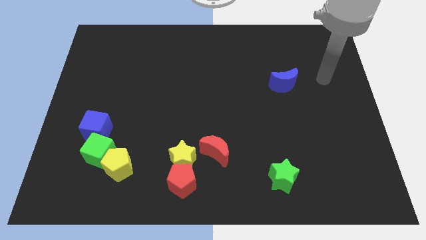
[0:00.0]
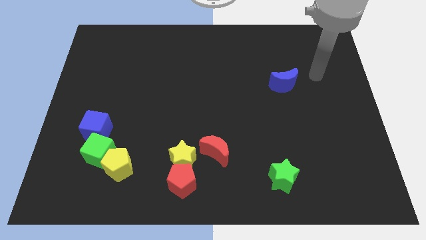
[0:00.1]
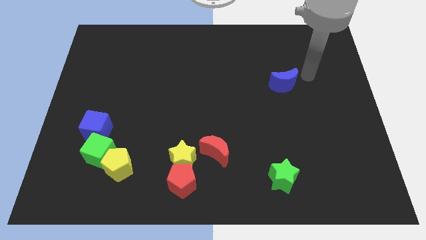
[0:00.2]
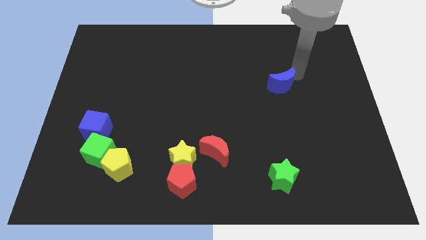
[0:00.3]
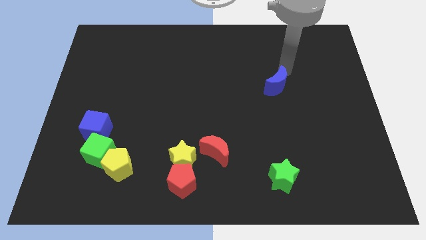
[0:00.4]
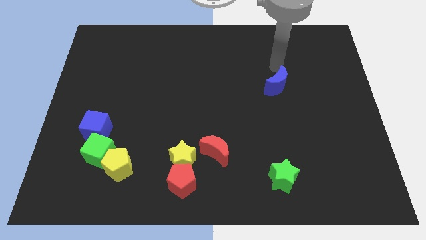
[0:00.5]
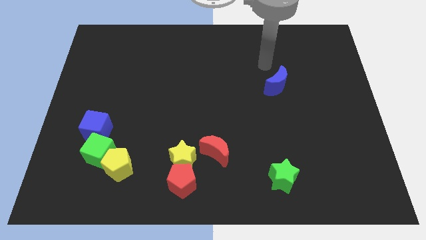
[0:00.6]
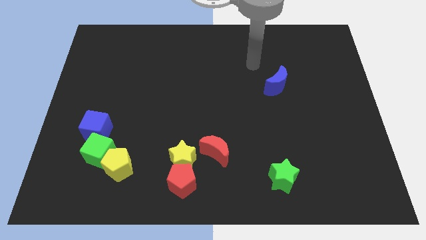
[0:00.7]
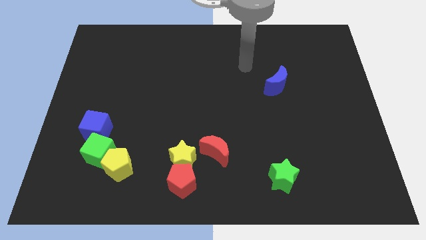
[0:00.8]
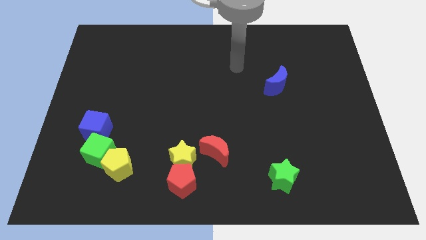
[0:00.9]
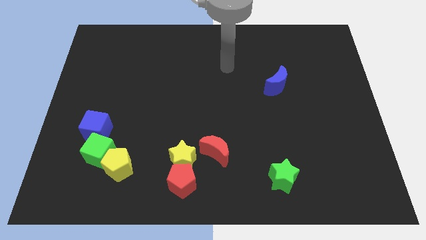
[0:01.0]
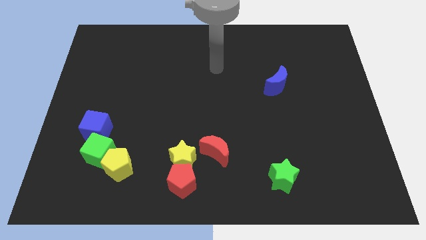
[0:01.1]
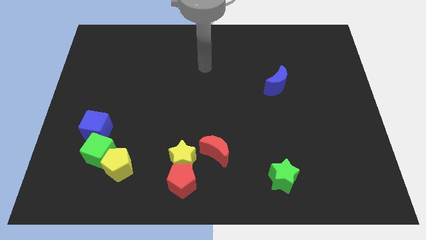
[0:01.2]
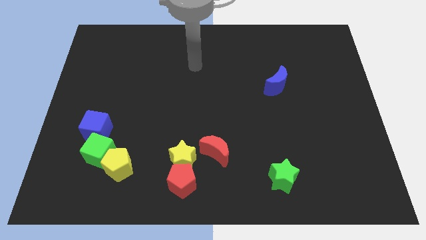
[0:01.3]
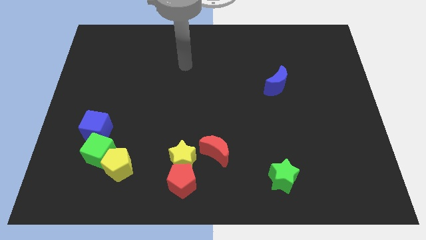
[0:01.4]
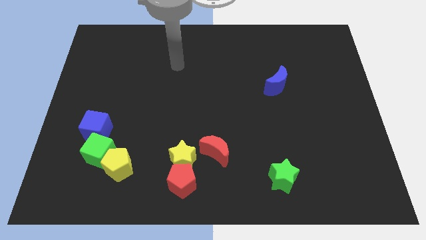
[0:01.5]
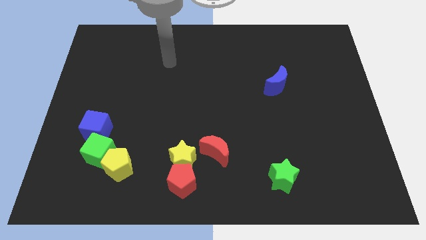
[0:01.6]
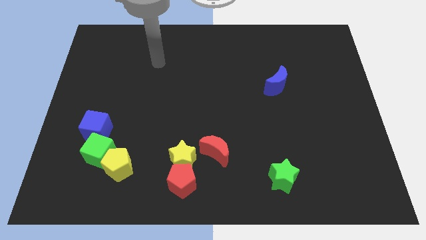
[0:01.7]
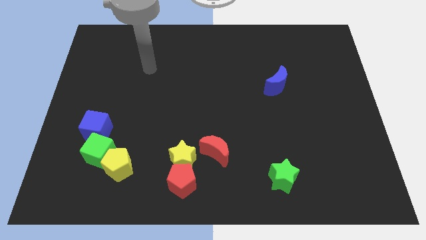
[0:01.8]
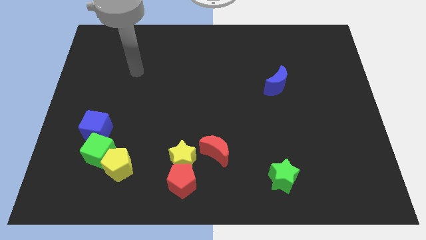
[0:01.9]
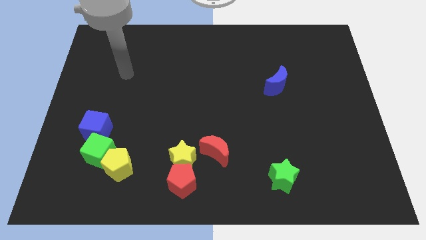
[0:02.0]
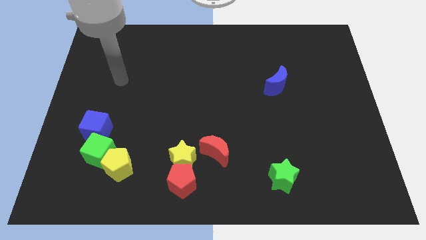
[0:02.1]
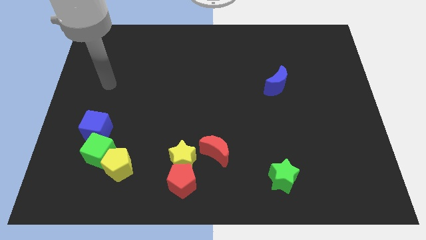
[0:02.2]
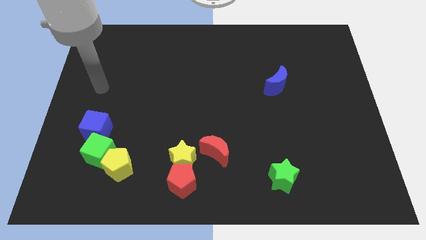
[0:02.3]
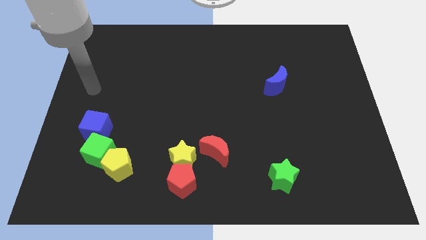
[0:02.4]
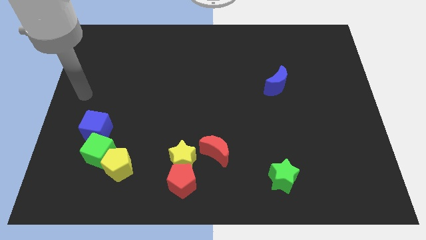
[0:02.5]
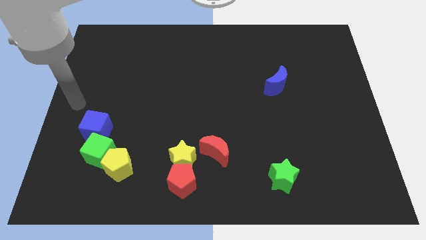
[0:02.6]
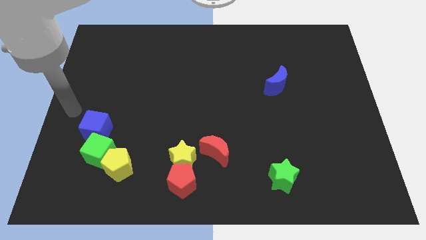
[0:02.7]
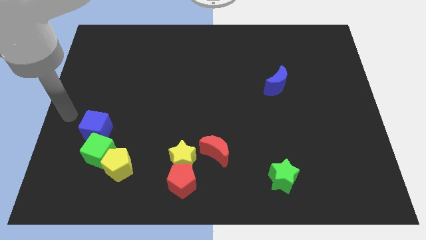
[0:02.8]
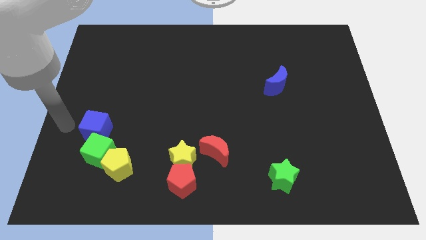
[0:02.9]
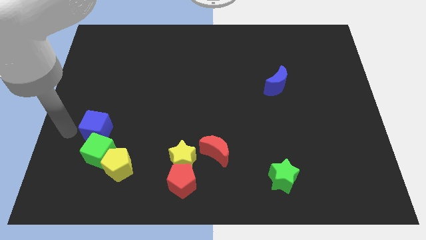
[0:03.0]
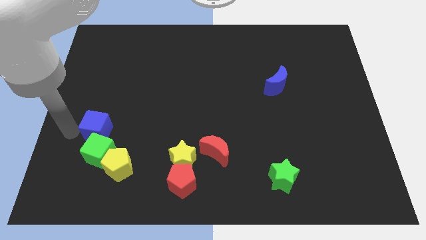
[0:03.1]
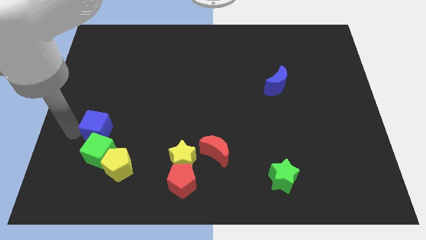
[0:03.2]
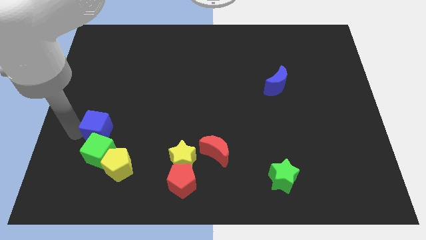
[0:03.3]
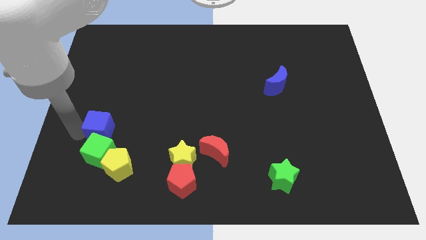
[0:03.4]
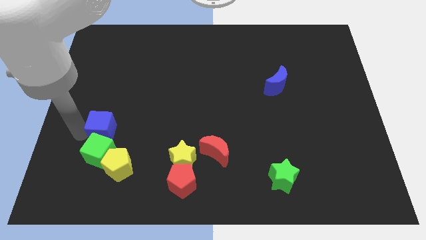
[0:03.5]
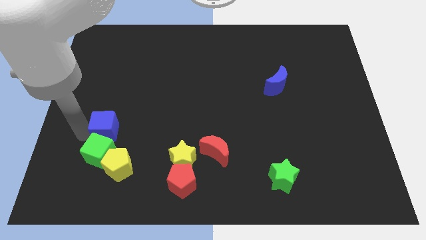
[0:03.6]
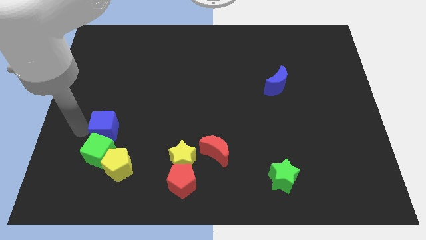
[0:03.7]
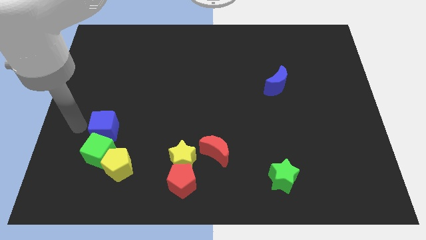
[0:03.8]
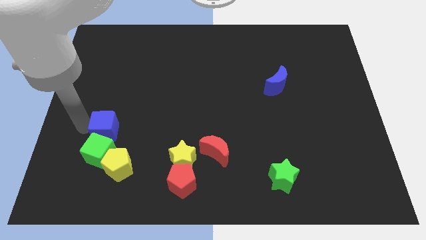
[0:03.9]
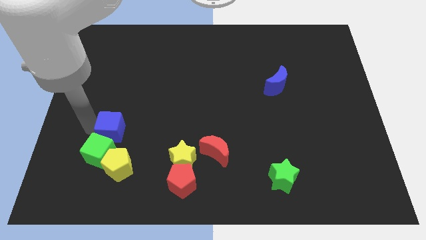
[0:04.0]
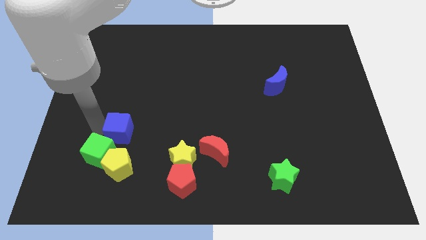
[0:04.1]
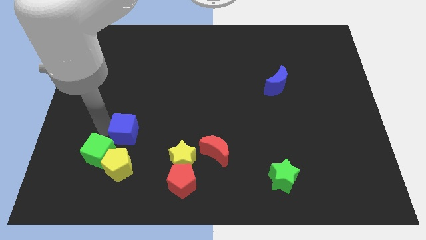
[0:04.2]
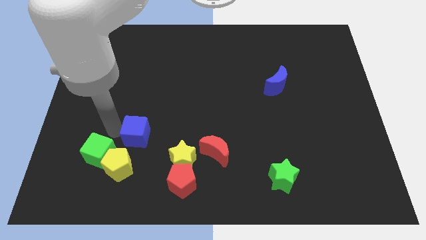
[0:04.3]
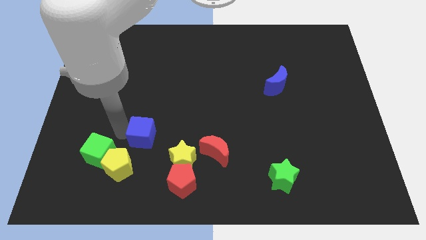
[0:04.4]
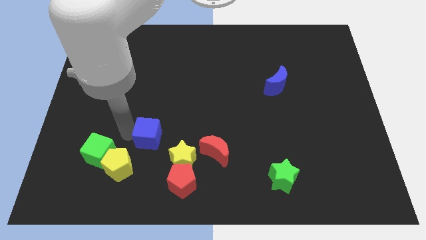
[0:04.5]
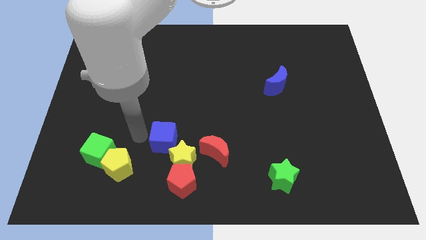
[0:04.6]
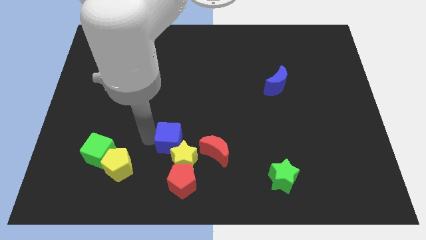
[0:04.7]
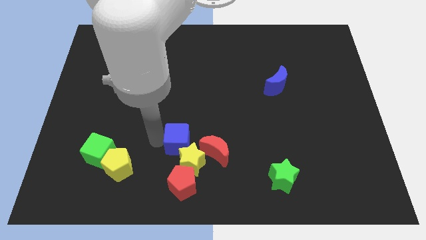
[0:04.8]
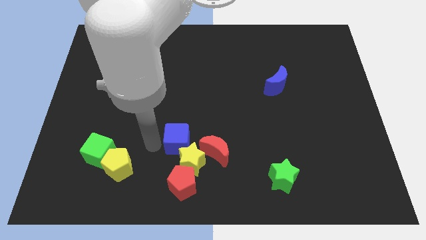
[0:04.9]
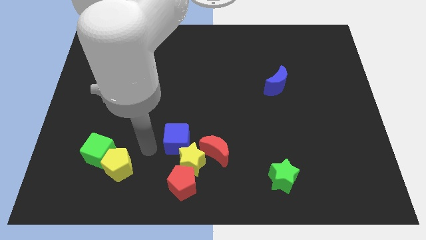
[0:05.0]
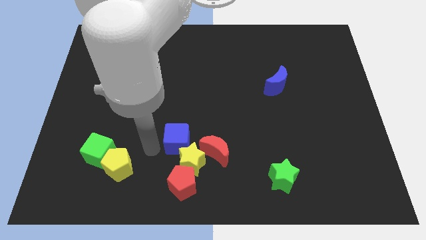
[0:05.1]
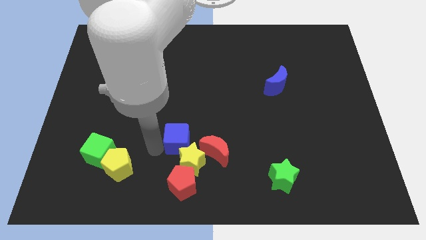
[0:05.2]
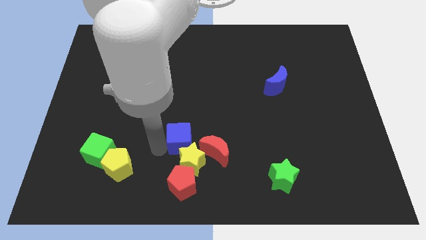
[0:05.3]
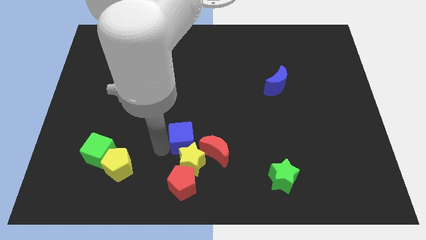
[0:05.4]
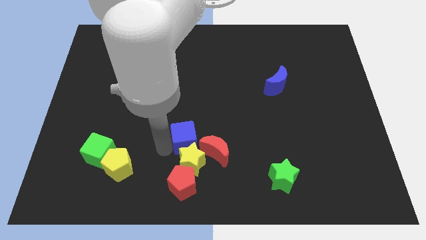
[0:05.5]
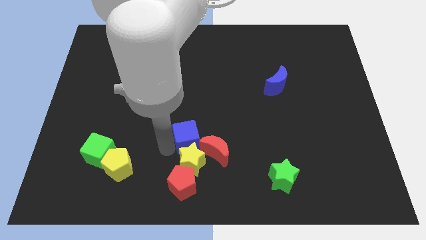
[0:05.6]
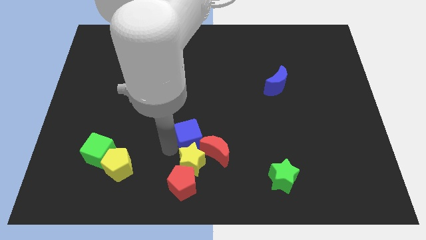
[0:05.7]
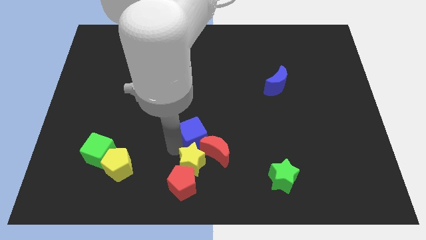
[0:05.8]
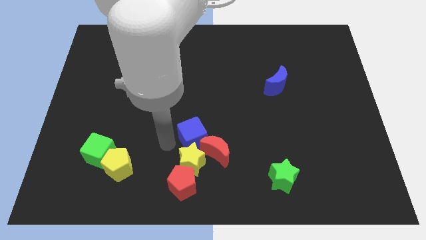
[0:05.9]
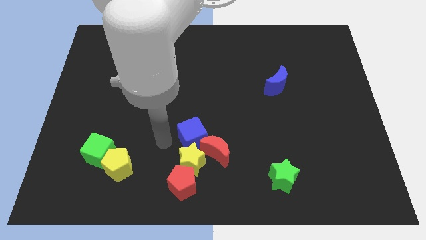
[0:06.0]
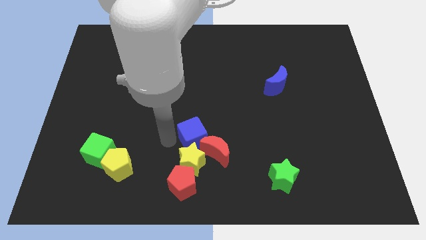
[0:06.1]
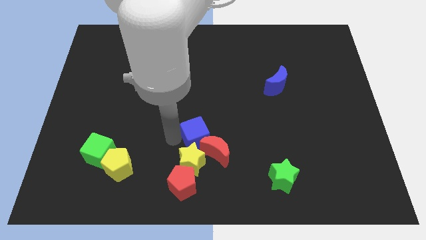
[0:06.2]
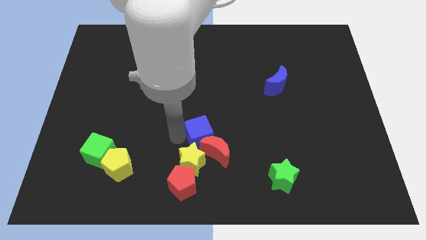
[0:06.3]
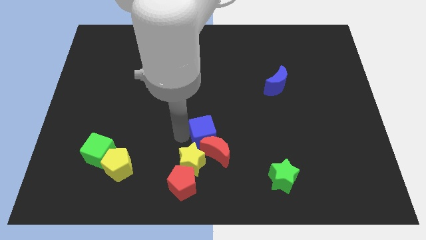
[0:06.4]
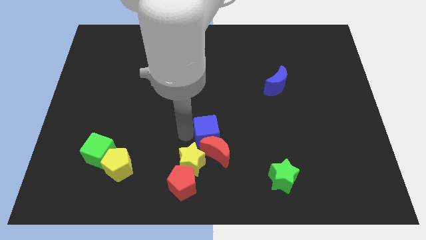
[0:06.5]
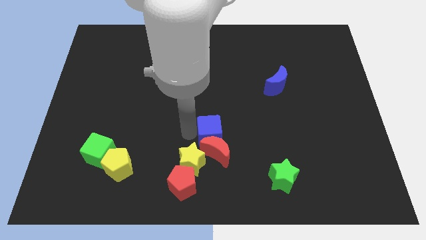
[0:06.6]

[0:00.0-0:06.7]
slide the blue cube to the top right of the red moon
